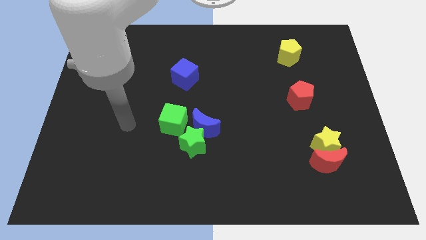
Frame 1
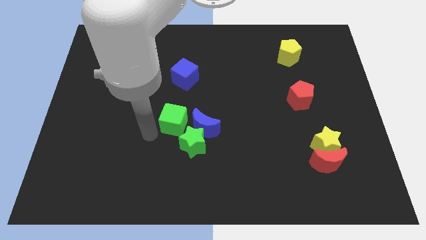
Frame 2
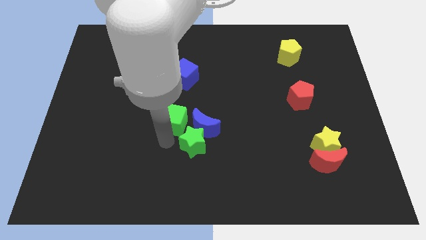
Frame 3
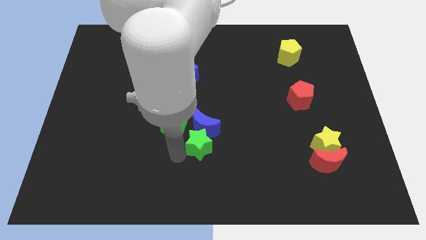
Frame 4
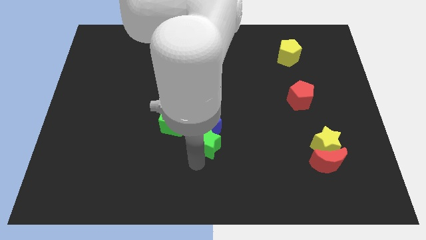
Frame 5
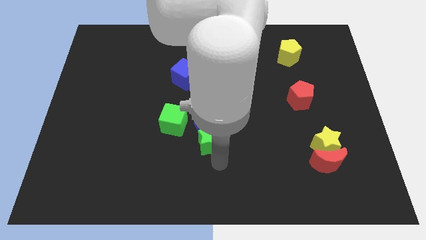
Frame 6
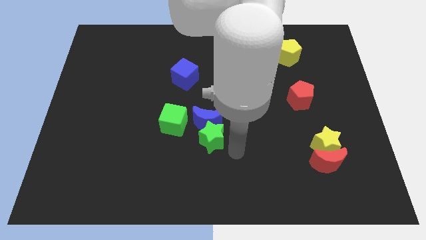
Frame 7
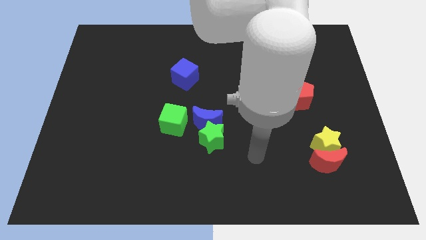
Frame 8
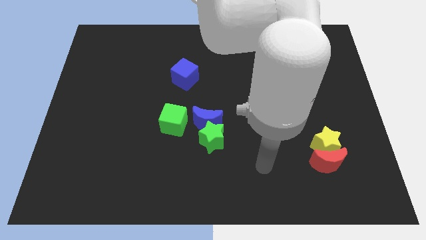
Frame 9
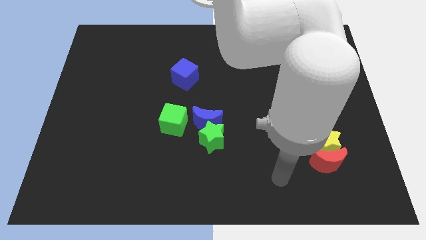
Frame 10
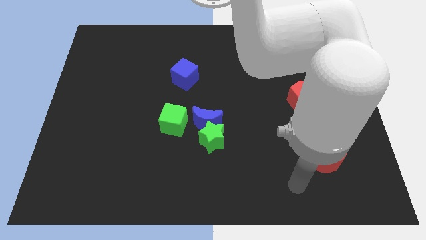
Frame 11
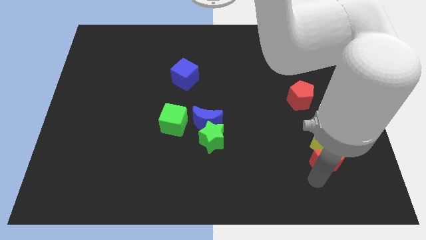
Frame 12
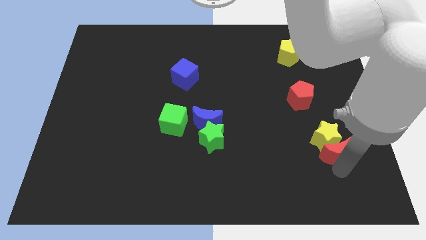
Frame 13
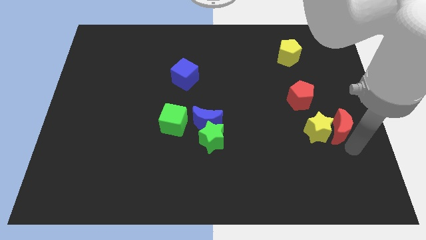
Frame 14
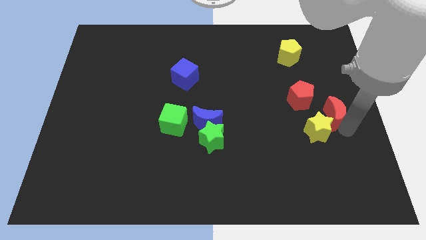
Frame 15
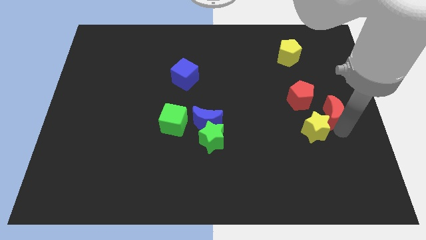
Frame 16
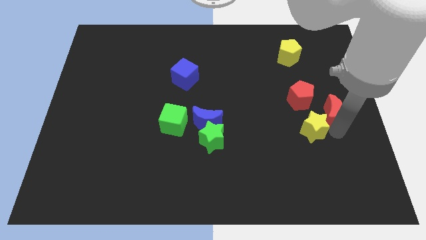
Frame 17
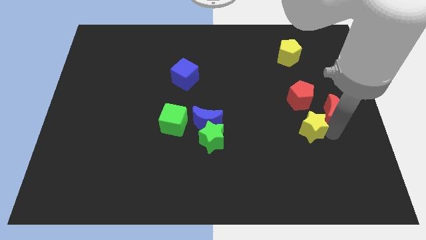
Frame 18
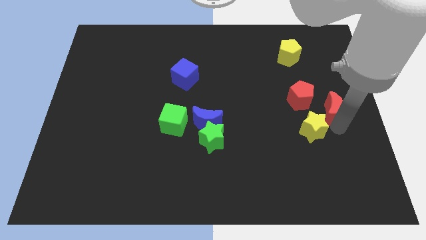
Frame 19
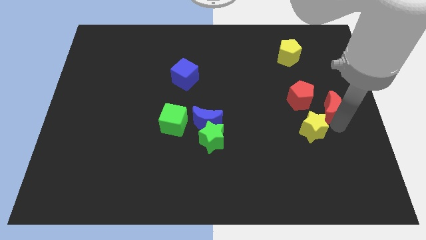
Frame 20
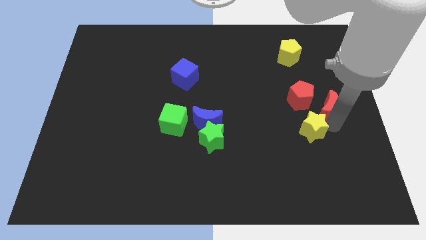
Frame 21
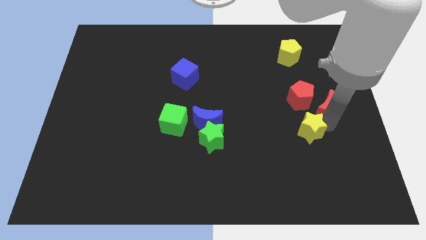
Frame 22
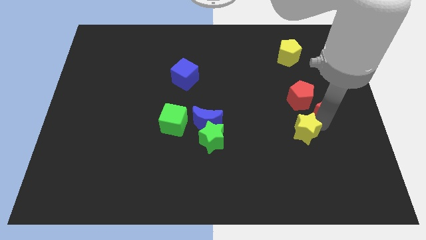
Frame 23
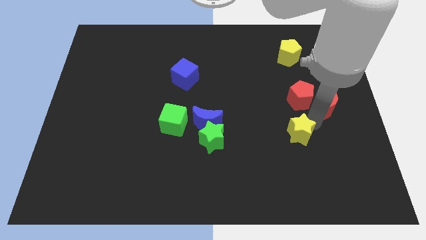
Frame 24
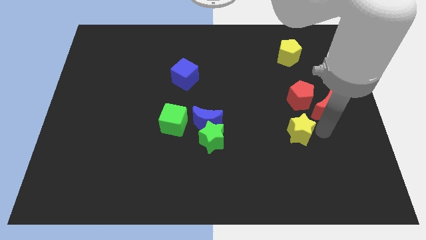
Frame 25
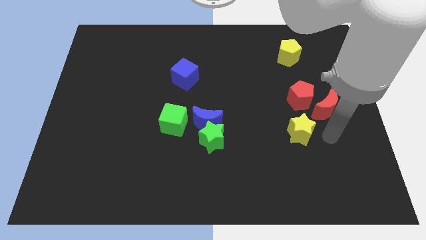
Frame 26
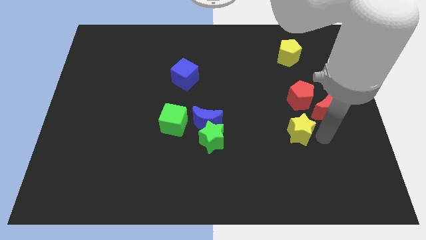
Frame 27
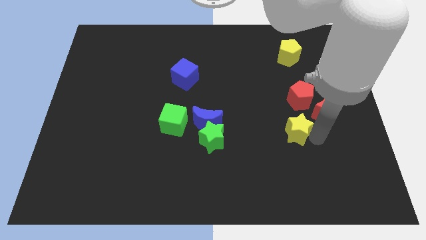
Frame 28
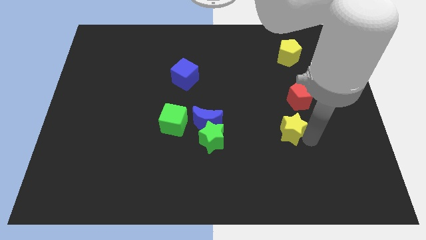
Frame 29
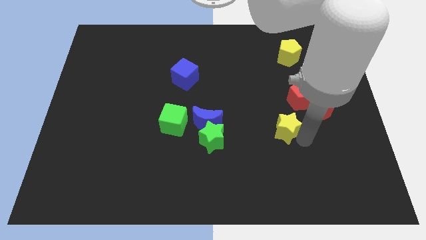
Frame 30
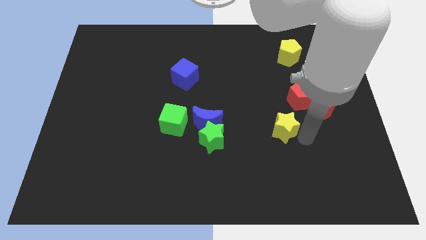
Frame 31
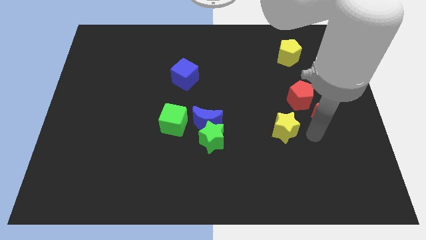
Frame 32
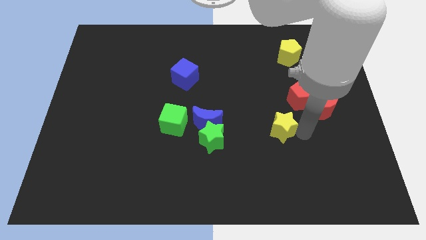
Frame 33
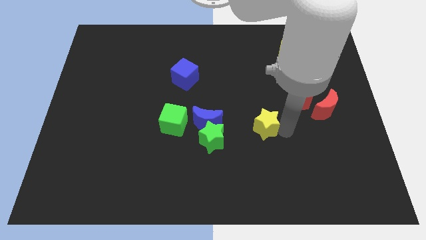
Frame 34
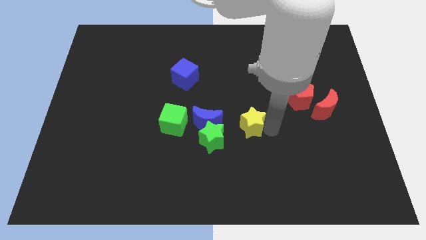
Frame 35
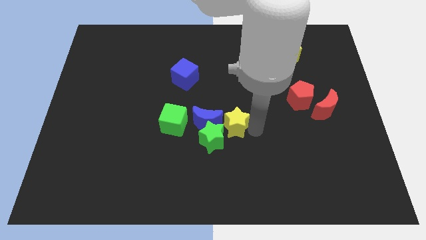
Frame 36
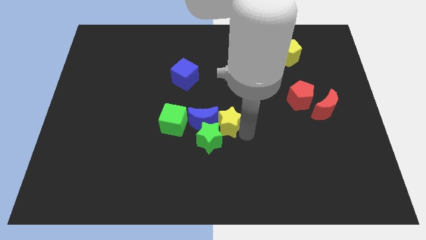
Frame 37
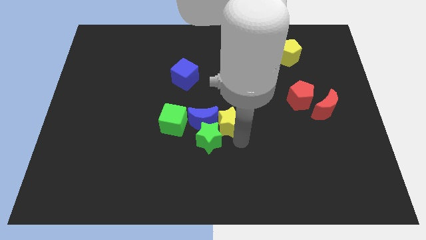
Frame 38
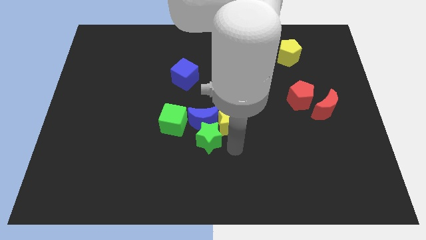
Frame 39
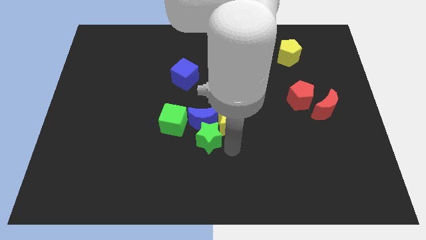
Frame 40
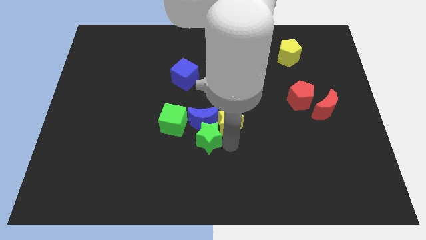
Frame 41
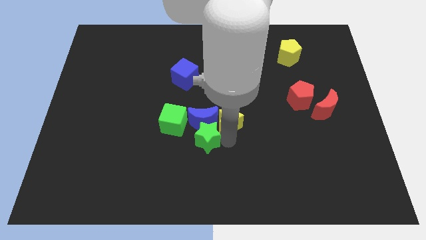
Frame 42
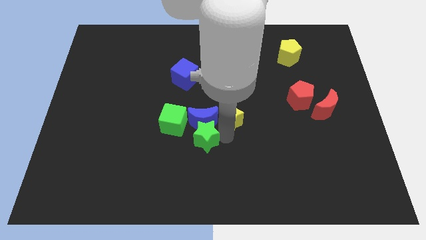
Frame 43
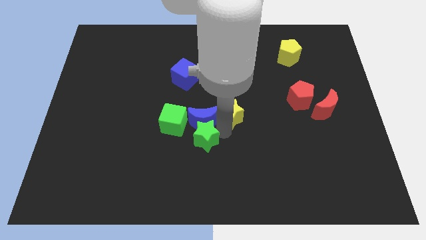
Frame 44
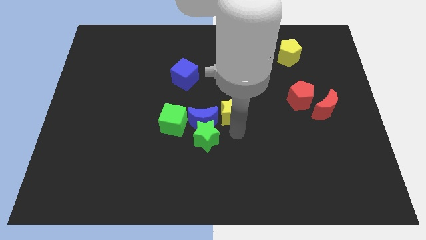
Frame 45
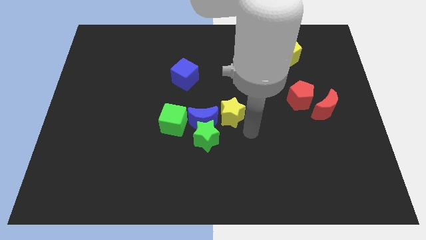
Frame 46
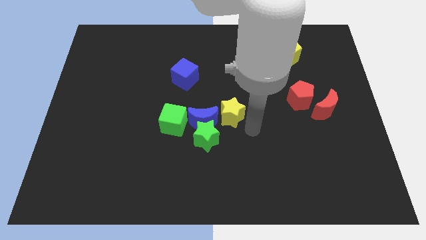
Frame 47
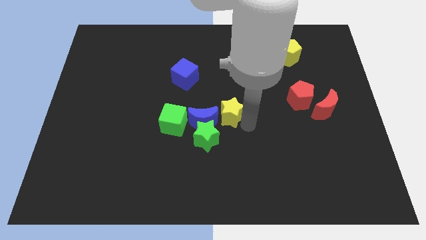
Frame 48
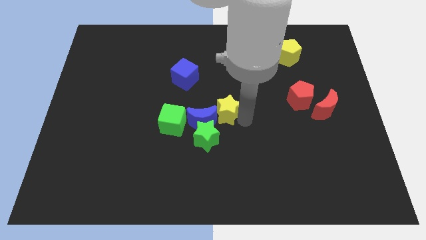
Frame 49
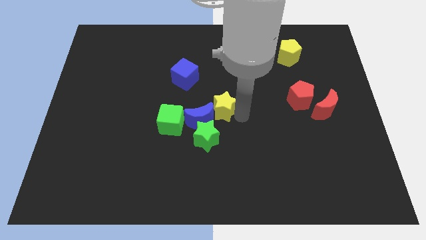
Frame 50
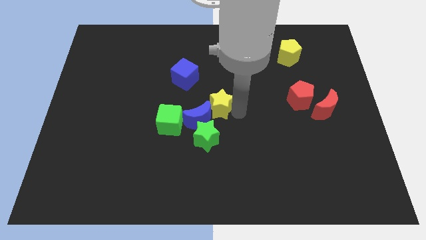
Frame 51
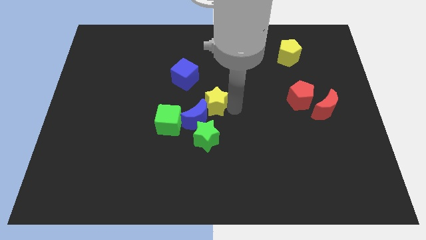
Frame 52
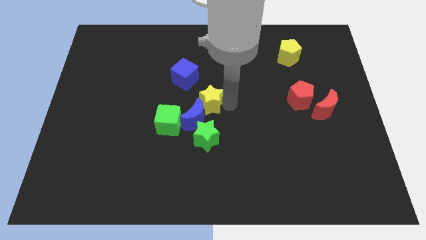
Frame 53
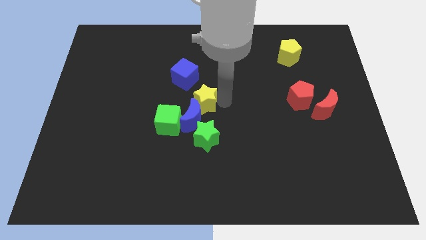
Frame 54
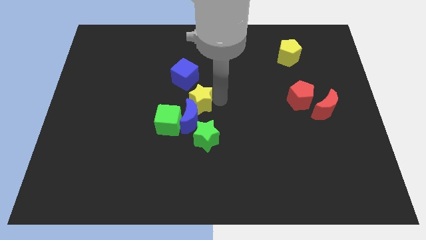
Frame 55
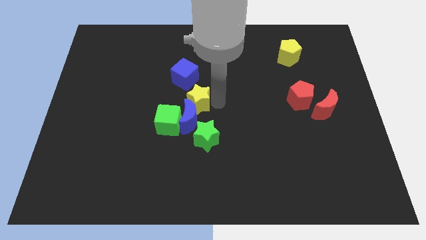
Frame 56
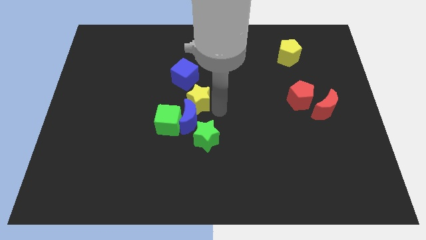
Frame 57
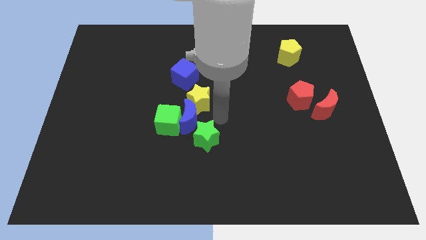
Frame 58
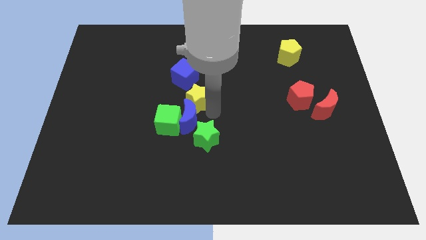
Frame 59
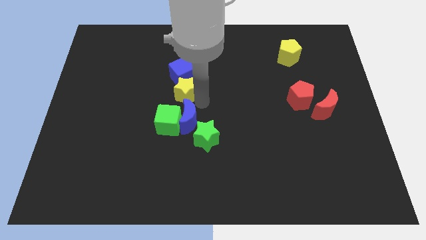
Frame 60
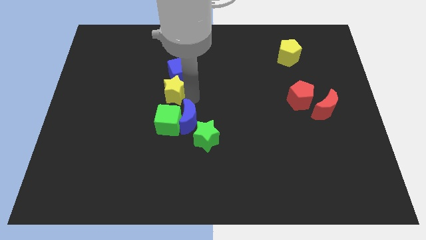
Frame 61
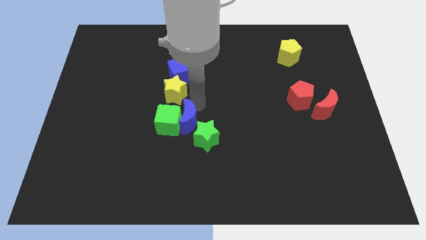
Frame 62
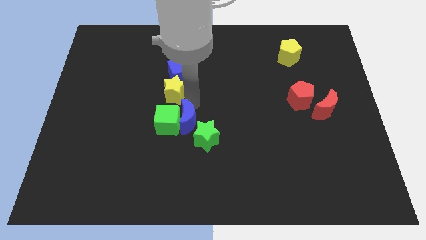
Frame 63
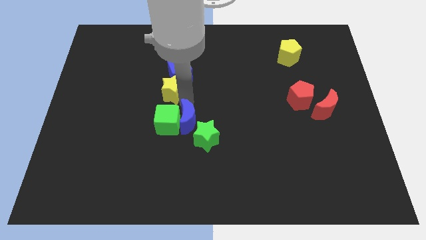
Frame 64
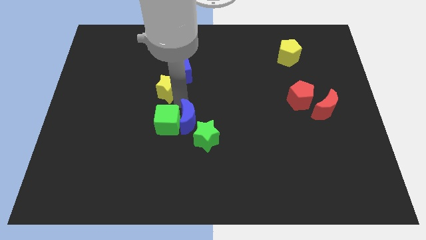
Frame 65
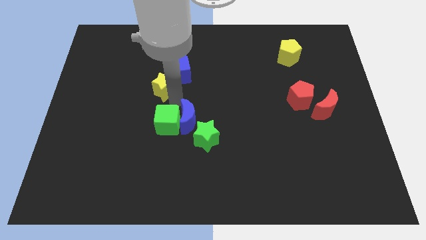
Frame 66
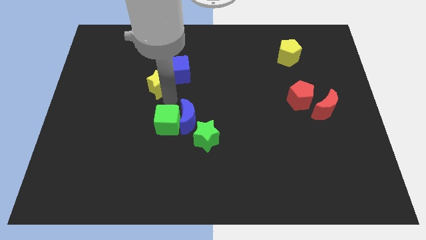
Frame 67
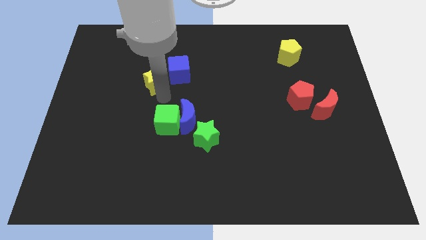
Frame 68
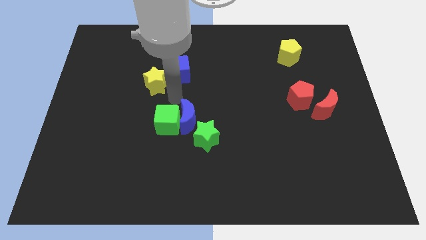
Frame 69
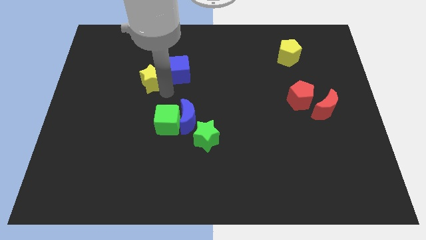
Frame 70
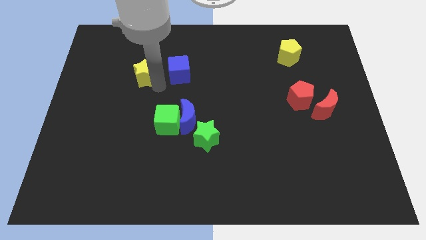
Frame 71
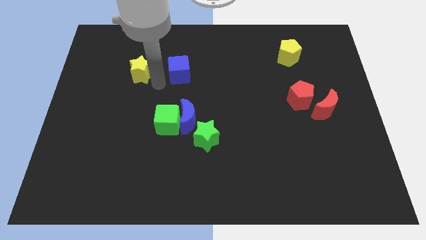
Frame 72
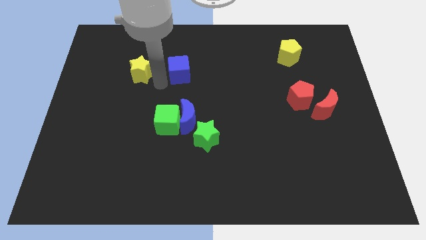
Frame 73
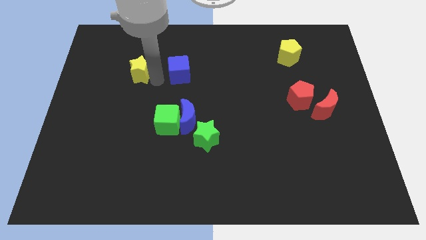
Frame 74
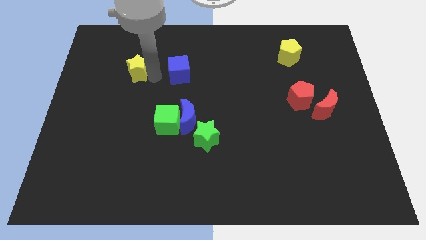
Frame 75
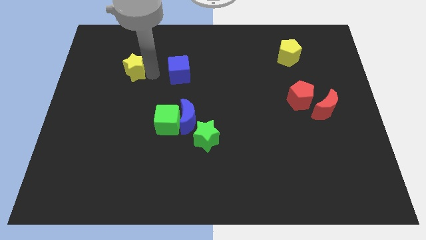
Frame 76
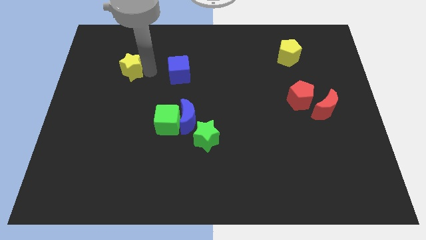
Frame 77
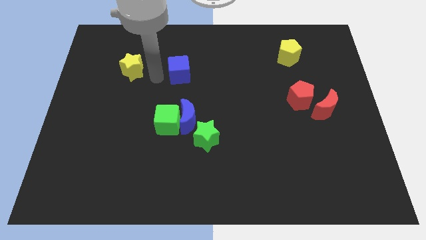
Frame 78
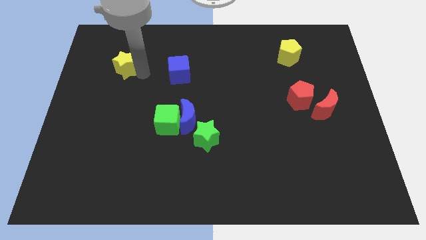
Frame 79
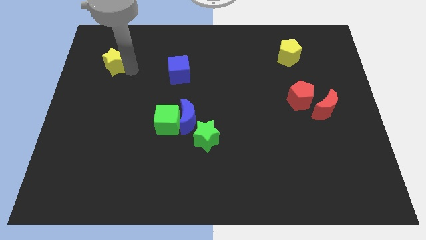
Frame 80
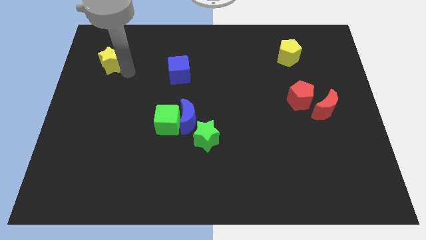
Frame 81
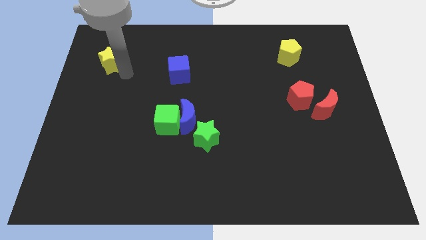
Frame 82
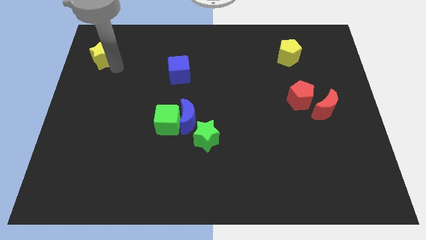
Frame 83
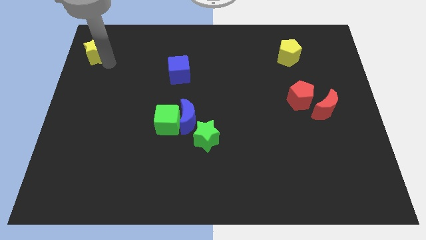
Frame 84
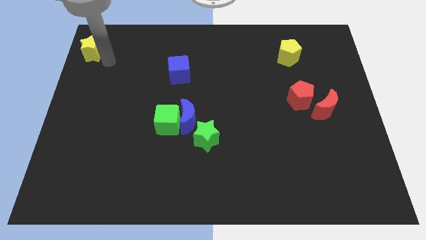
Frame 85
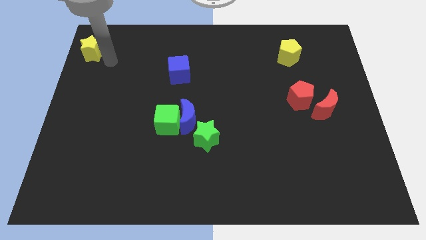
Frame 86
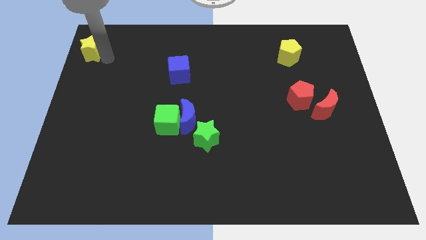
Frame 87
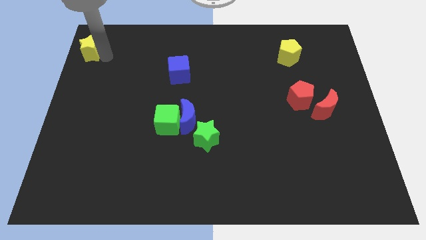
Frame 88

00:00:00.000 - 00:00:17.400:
slide the yellow star to the top left
